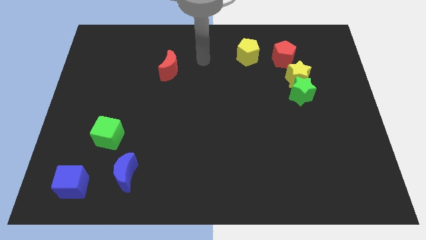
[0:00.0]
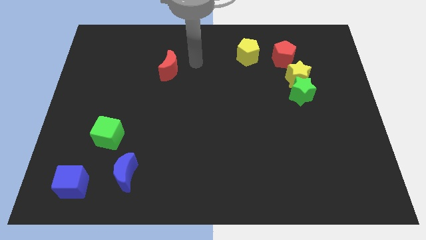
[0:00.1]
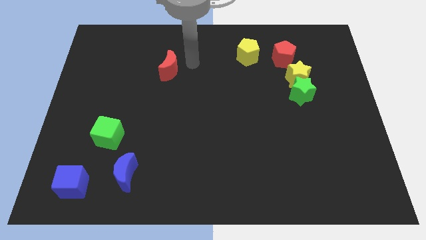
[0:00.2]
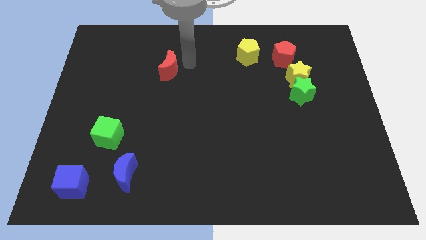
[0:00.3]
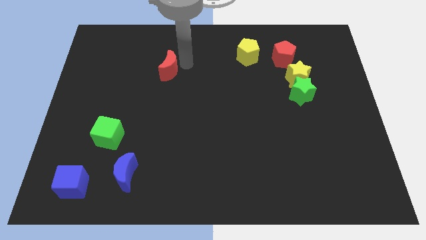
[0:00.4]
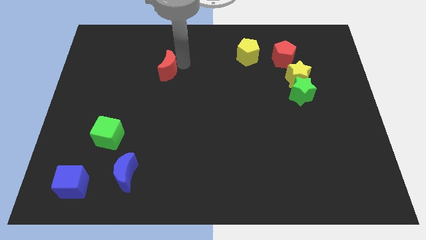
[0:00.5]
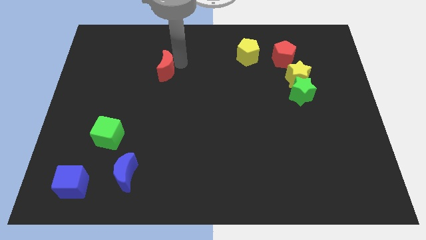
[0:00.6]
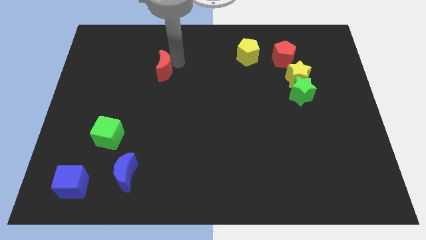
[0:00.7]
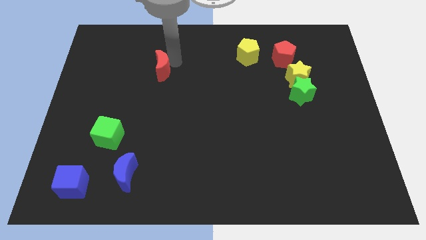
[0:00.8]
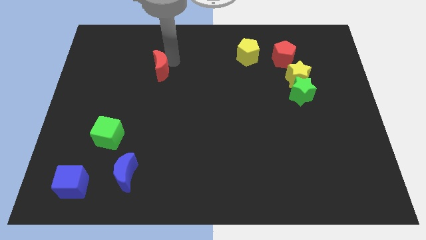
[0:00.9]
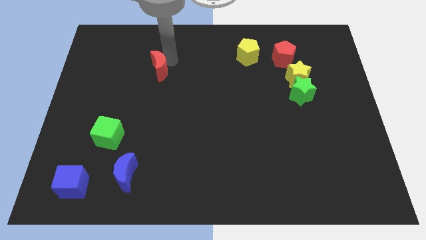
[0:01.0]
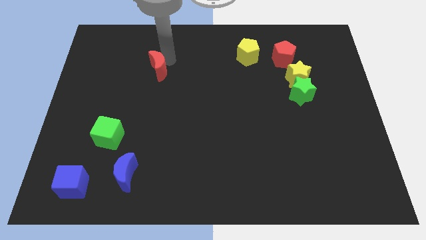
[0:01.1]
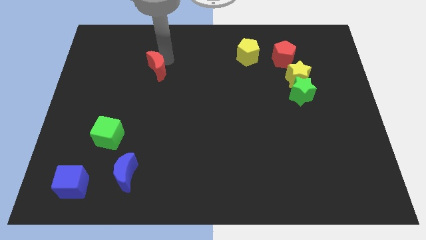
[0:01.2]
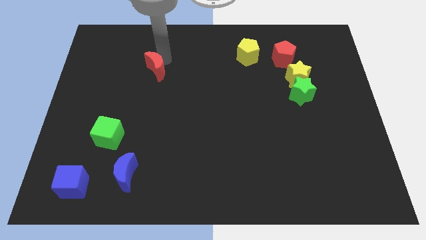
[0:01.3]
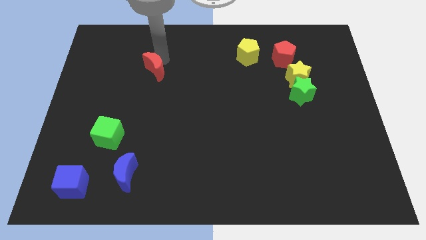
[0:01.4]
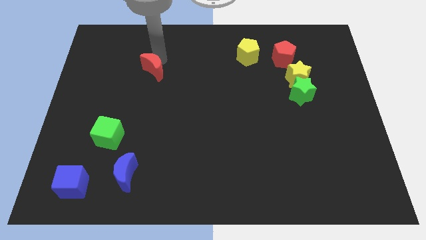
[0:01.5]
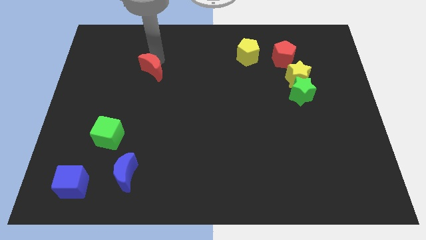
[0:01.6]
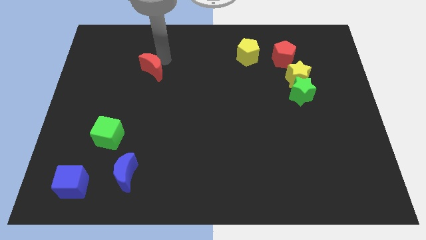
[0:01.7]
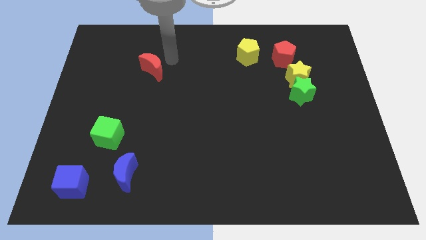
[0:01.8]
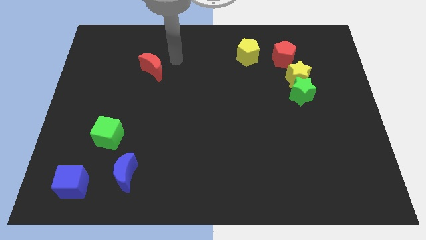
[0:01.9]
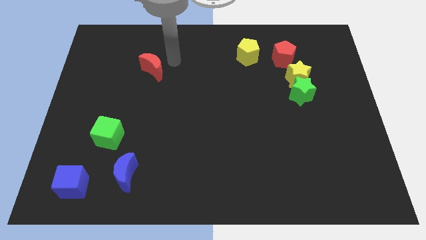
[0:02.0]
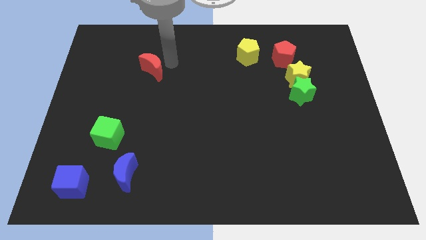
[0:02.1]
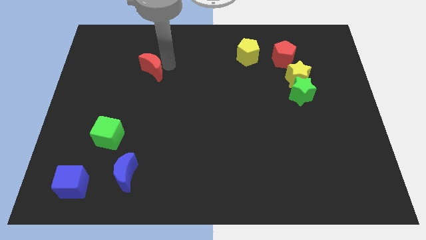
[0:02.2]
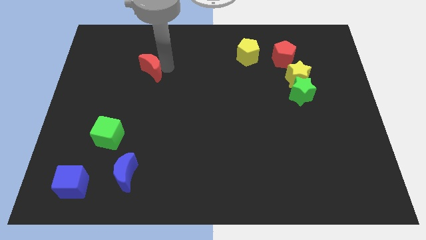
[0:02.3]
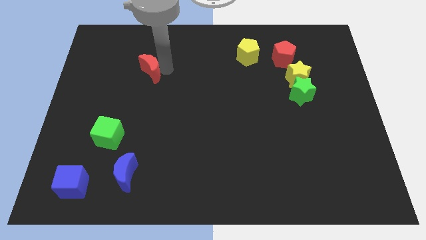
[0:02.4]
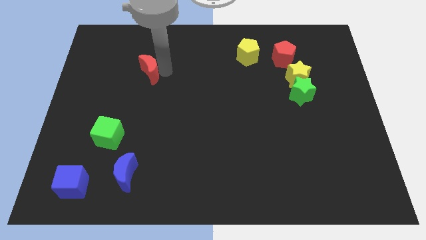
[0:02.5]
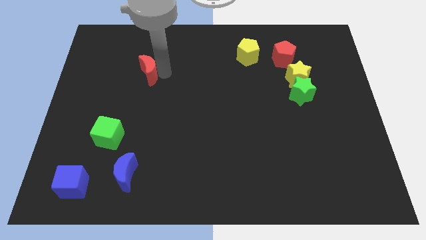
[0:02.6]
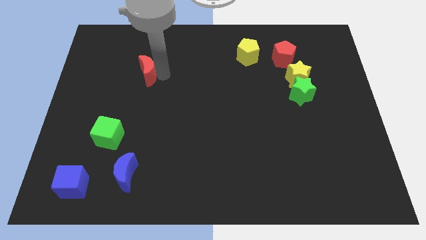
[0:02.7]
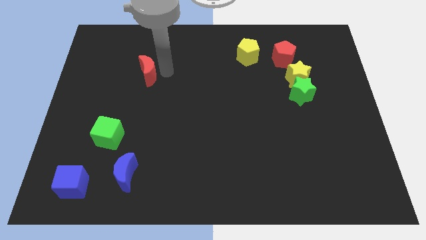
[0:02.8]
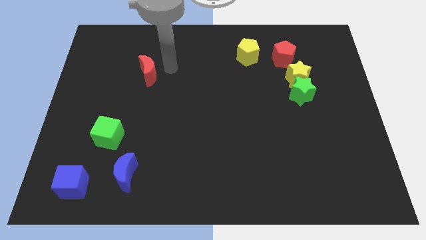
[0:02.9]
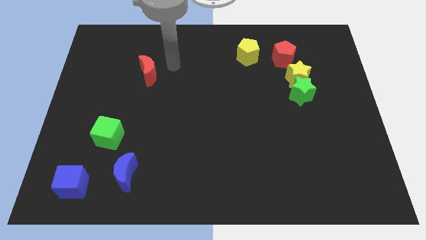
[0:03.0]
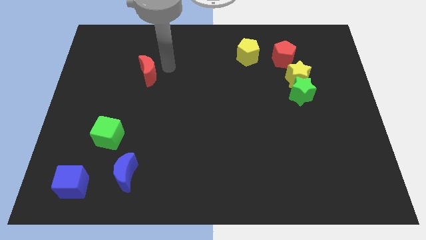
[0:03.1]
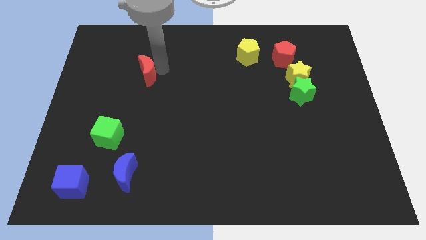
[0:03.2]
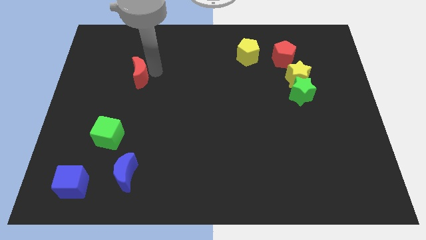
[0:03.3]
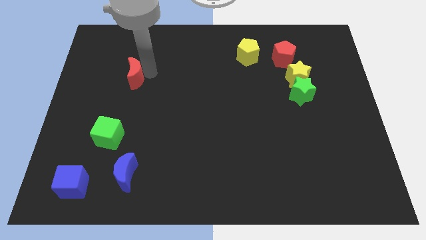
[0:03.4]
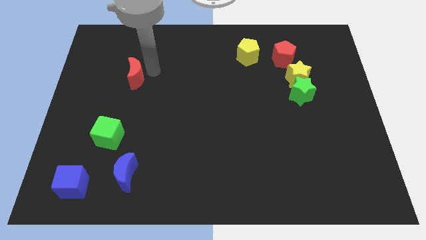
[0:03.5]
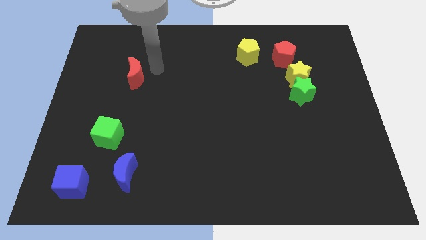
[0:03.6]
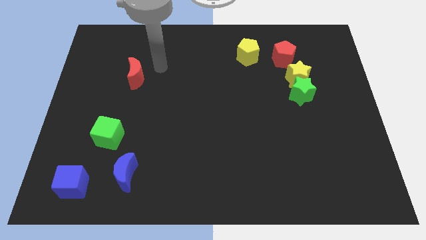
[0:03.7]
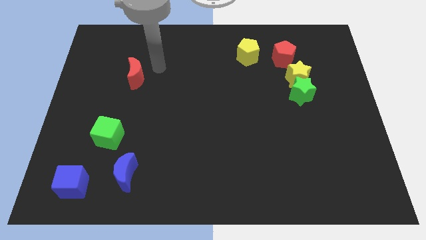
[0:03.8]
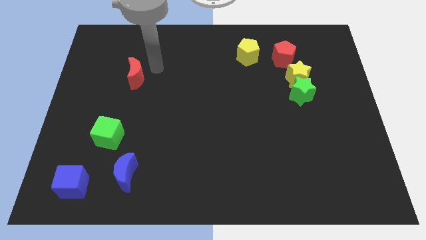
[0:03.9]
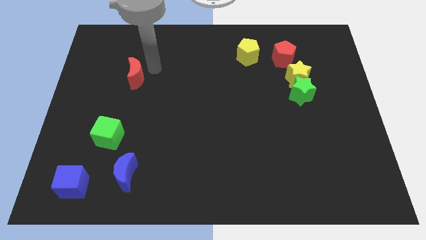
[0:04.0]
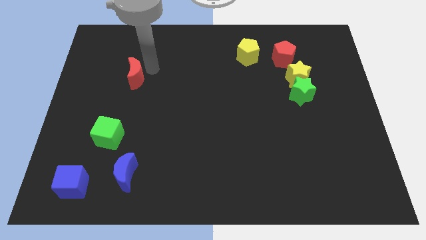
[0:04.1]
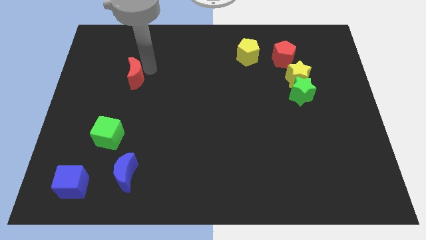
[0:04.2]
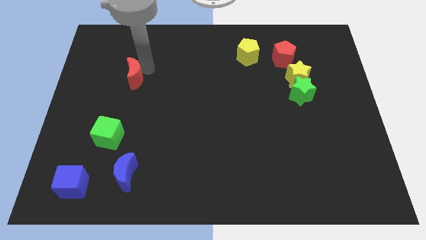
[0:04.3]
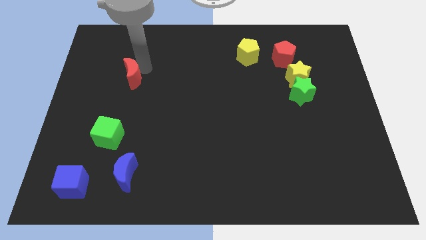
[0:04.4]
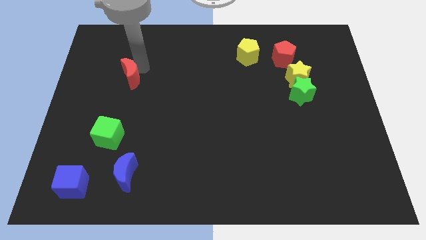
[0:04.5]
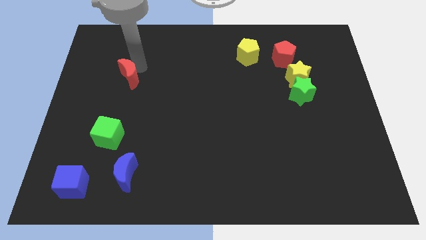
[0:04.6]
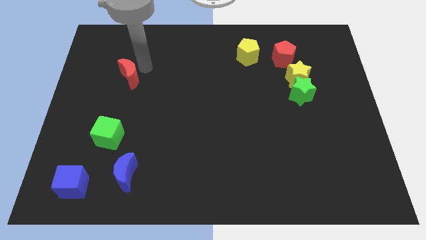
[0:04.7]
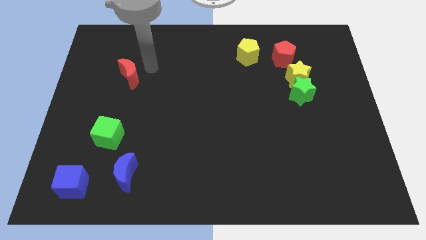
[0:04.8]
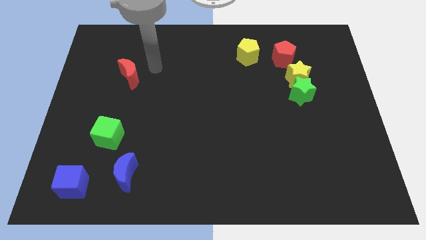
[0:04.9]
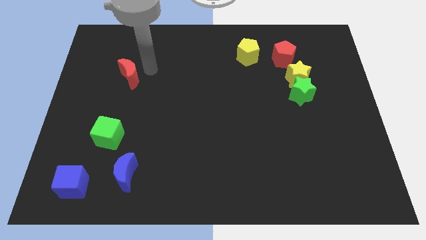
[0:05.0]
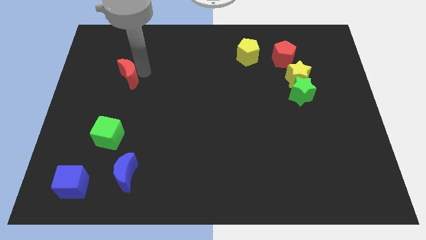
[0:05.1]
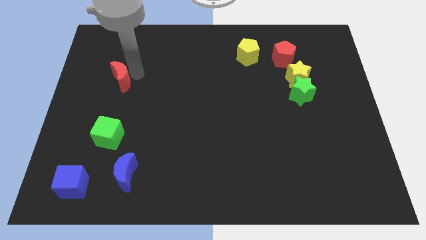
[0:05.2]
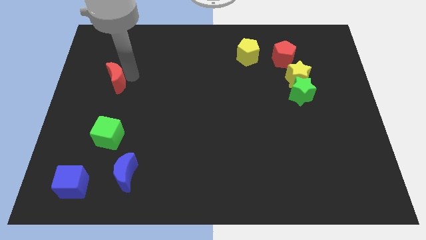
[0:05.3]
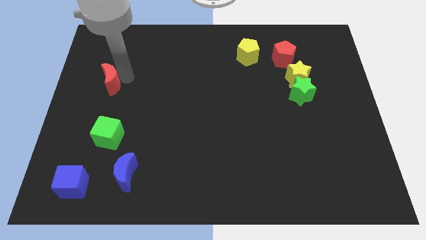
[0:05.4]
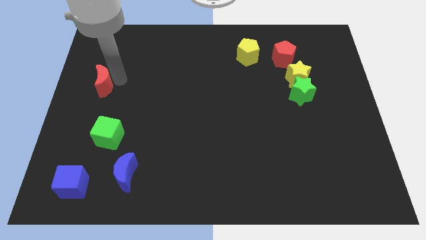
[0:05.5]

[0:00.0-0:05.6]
push the red moon to the center left
